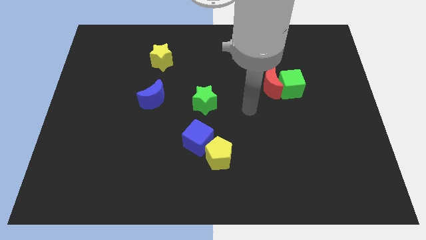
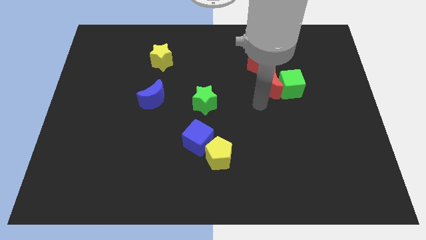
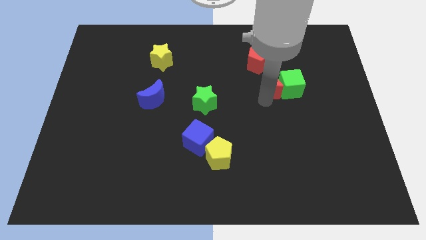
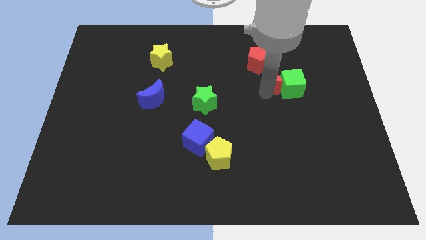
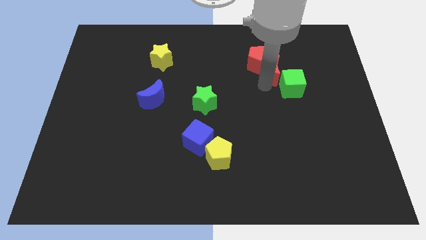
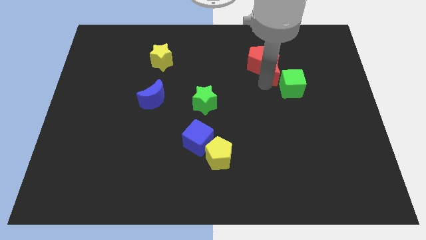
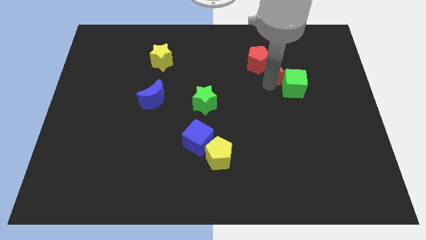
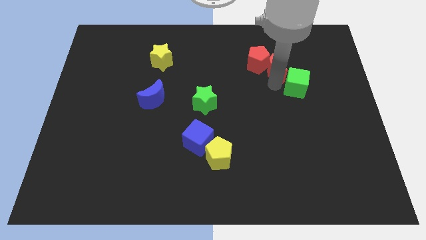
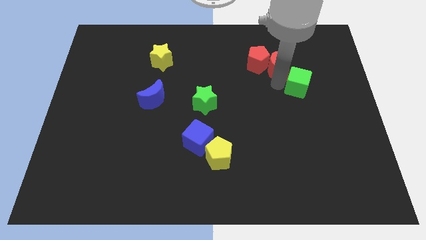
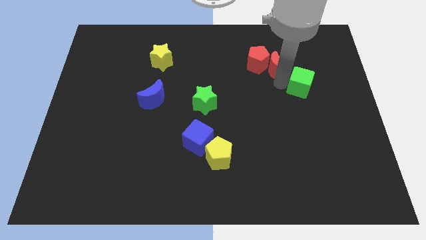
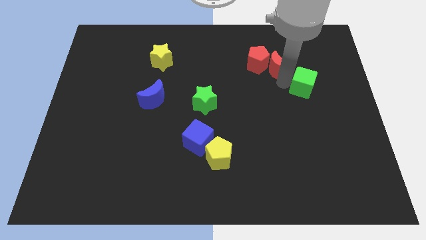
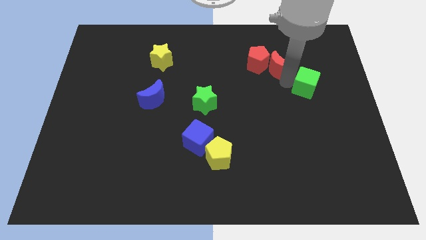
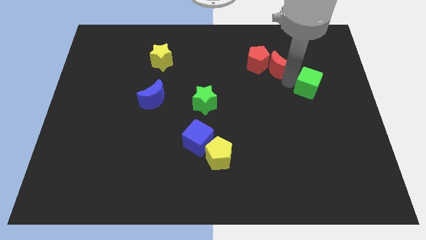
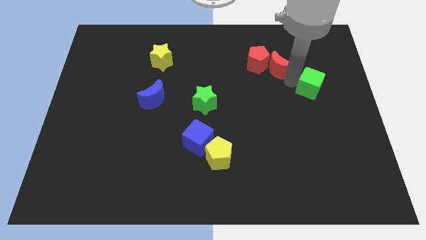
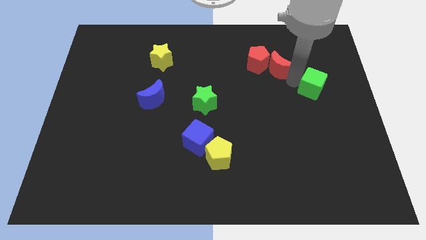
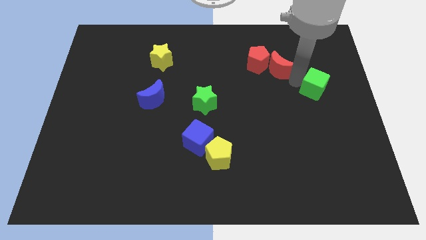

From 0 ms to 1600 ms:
separate the green cube from the red moon

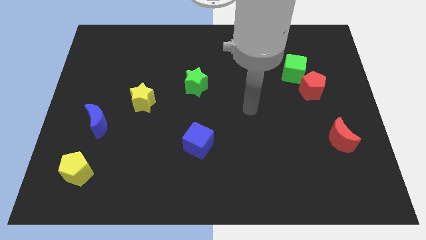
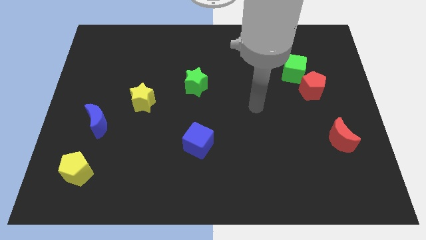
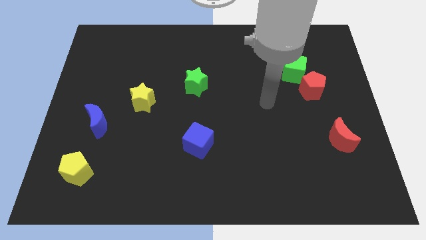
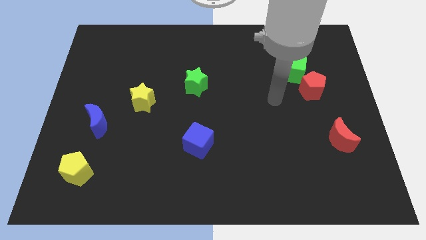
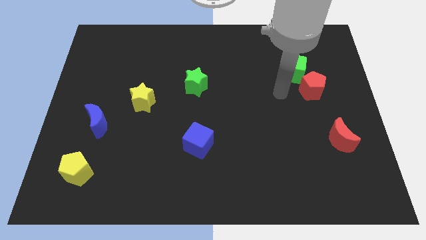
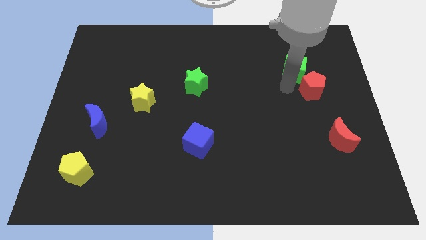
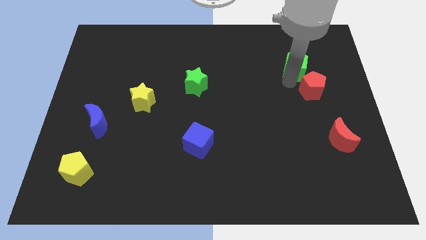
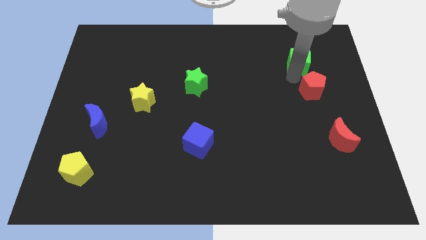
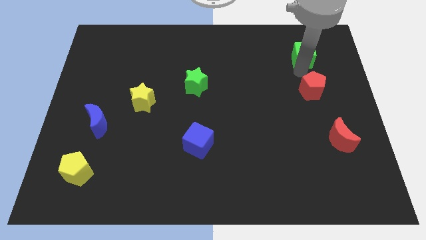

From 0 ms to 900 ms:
move the red pentagon away from the green cube

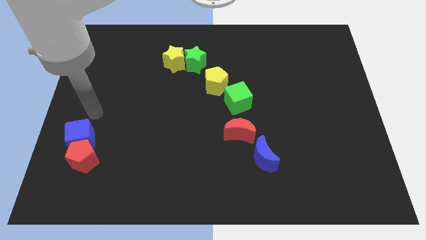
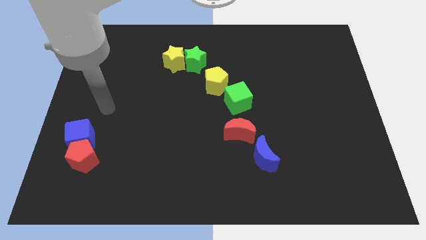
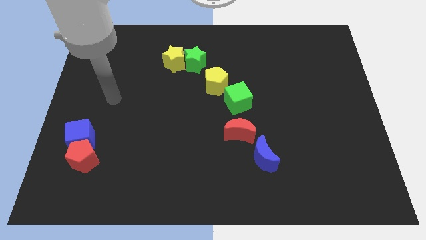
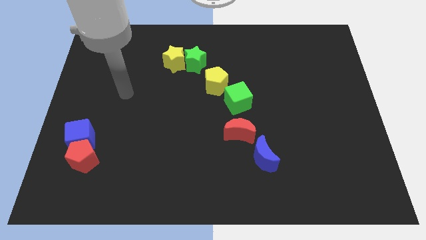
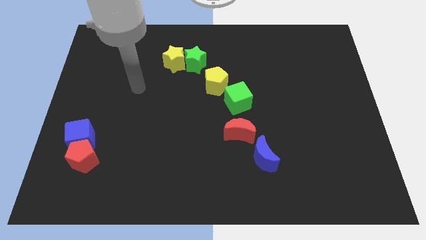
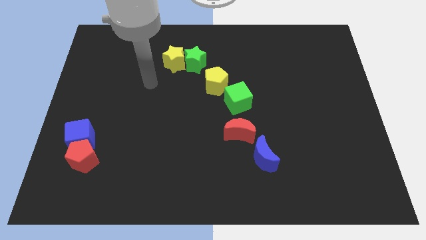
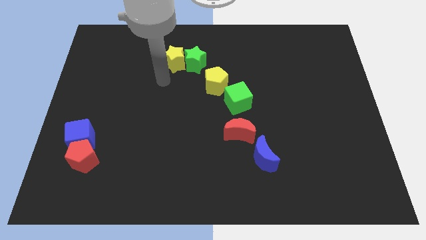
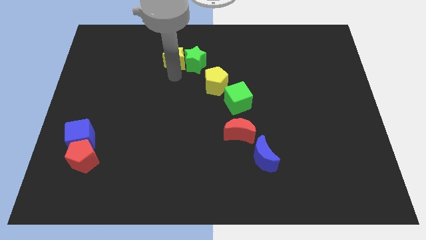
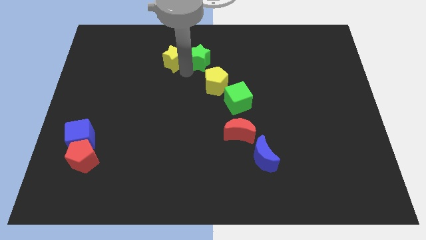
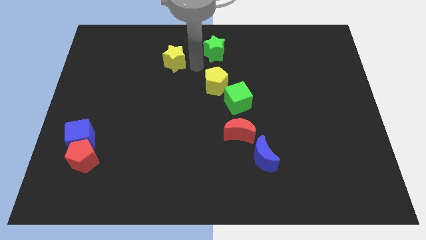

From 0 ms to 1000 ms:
move the yellow star away from the green star

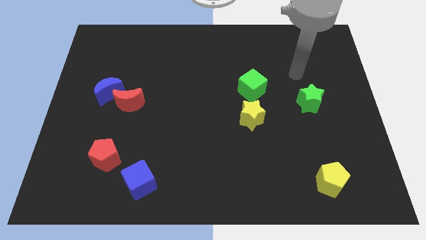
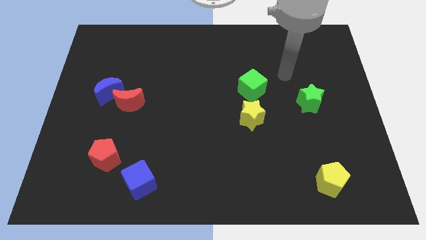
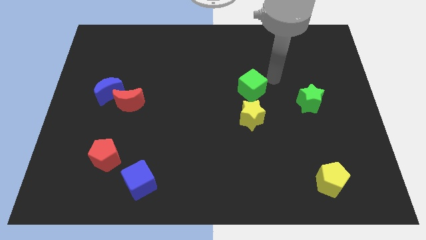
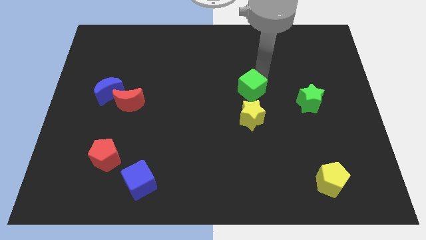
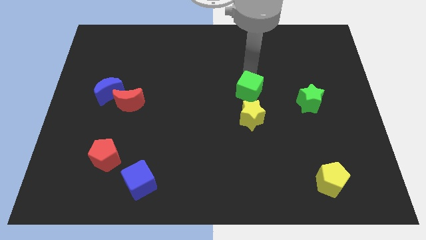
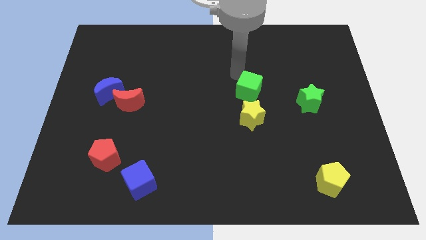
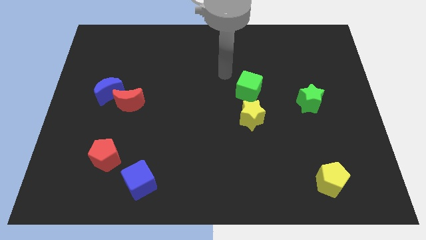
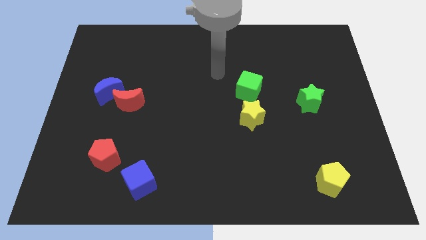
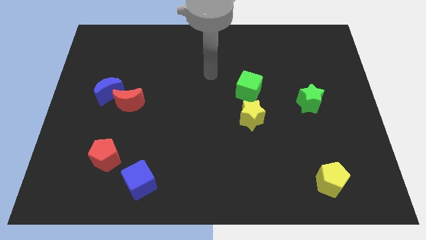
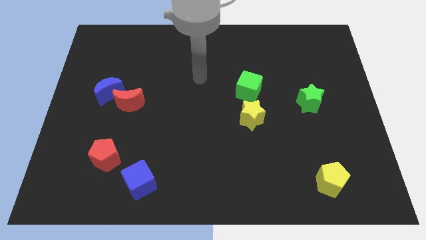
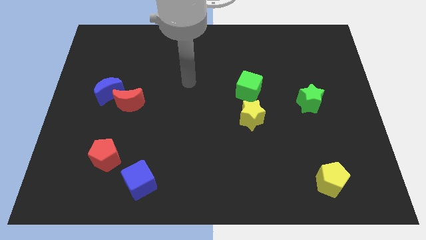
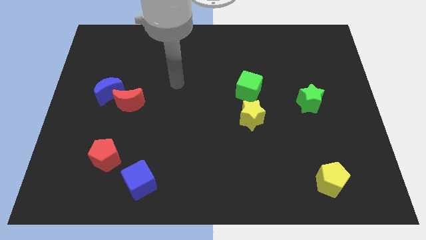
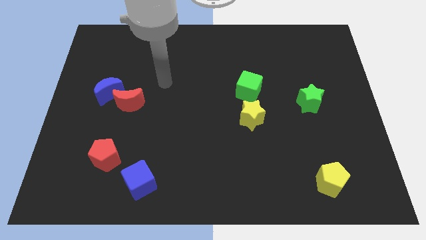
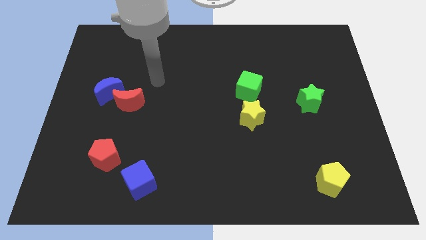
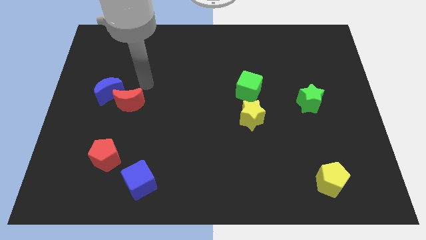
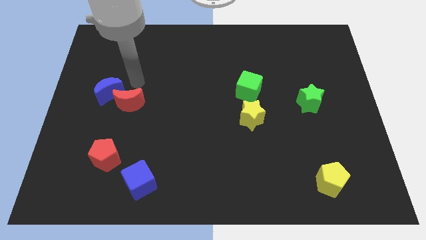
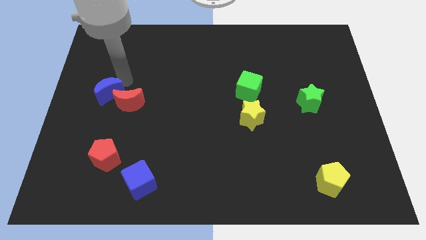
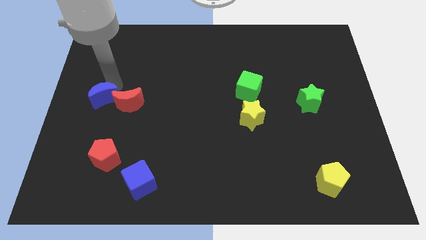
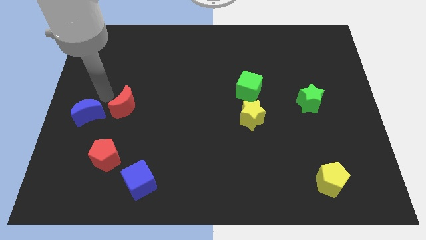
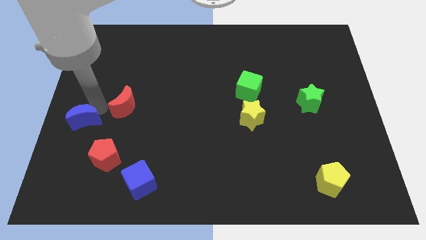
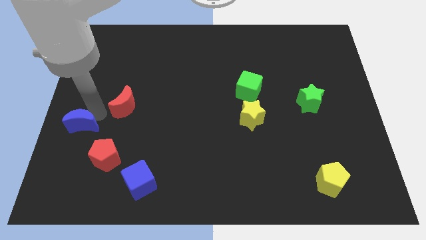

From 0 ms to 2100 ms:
separate the red moon from the blue moon

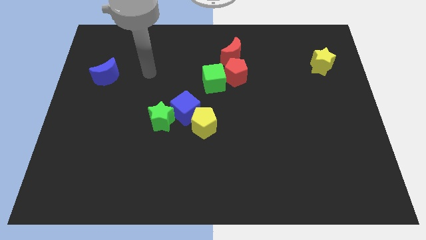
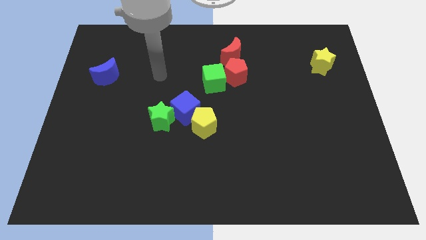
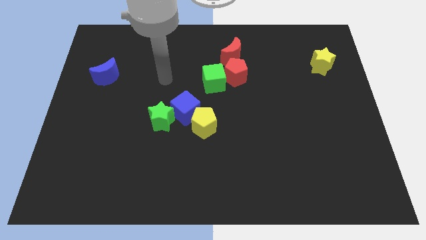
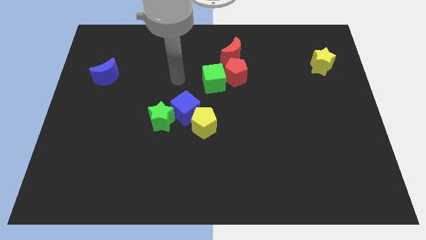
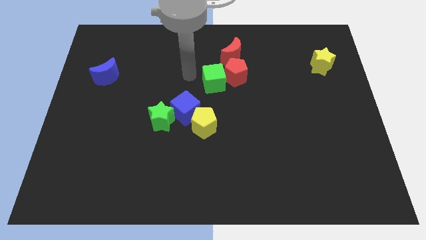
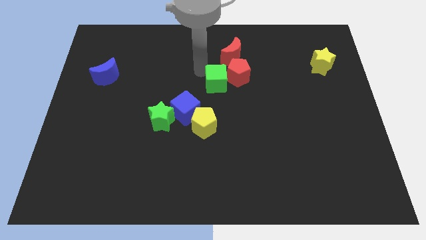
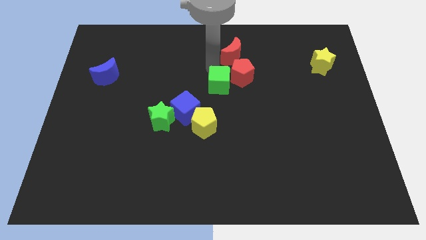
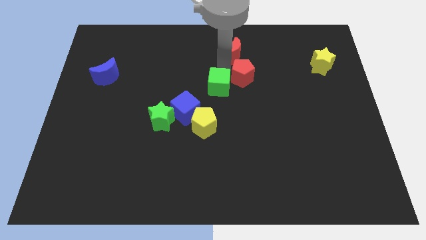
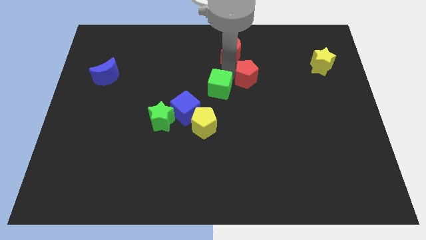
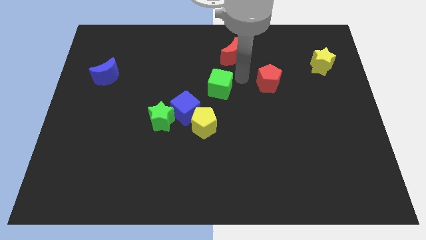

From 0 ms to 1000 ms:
separate the green cube from the red pentagon

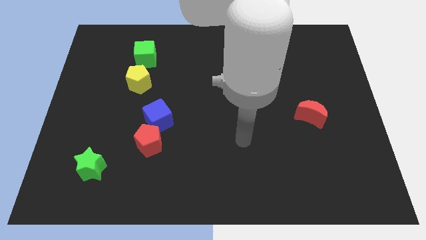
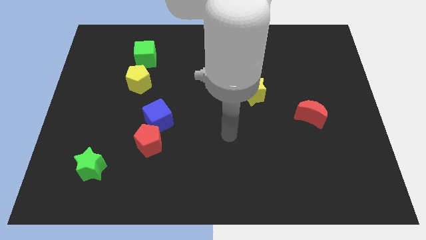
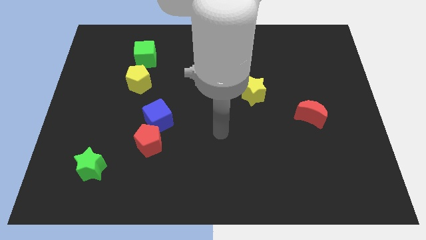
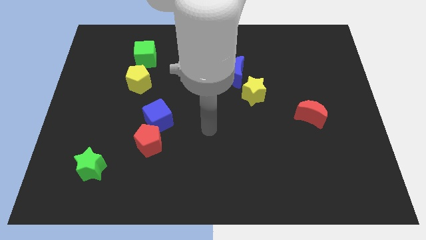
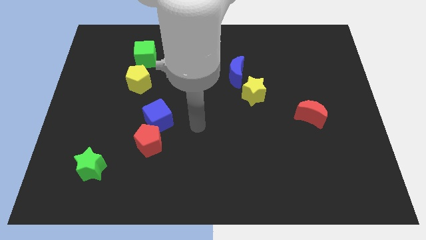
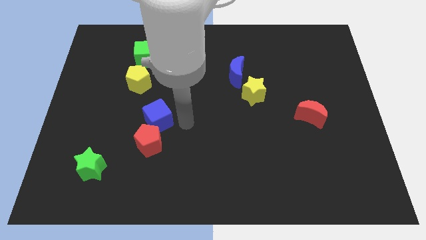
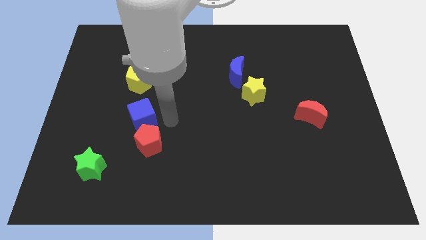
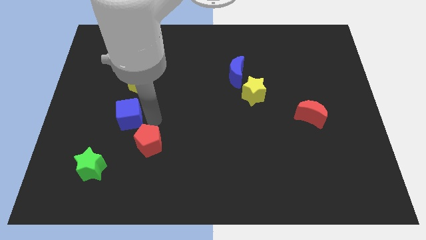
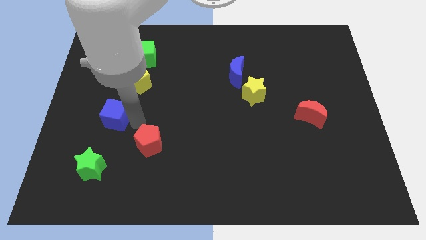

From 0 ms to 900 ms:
pull the red pentagon apart from the blue cube

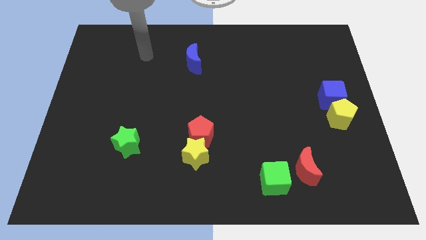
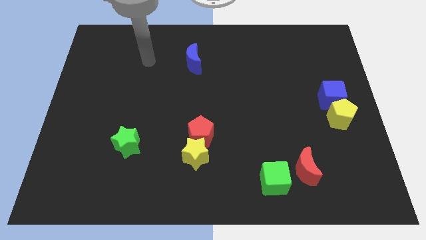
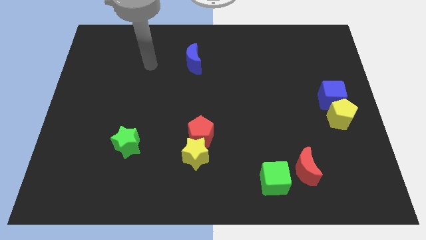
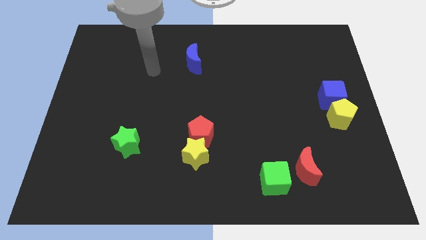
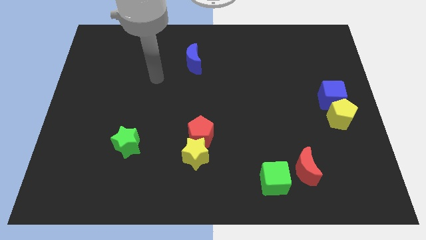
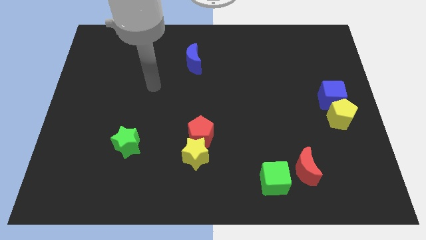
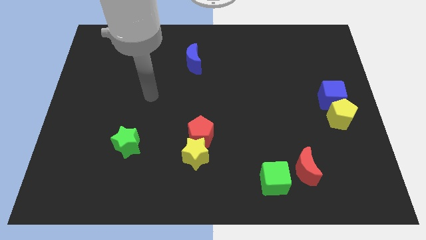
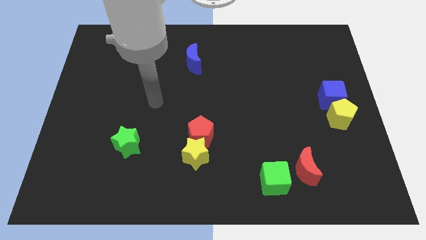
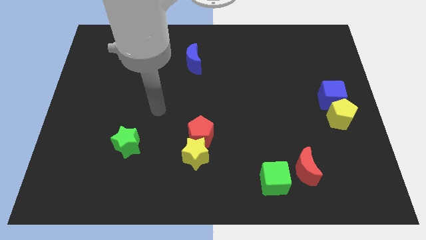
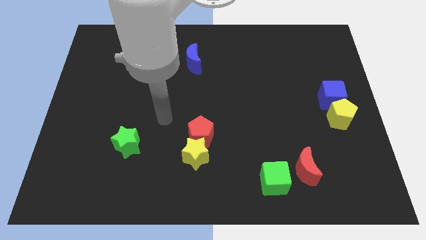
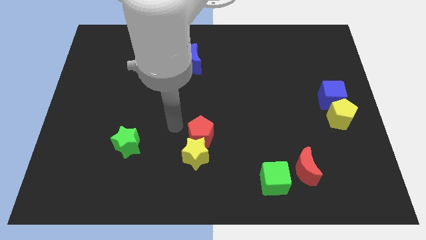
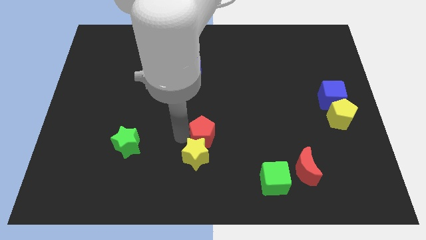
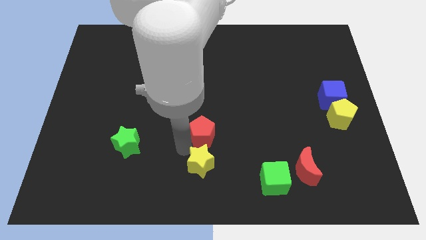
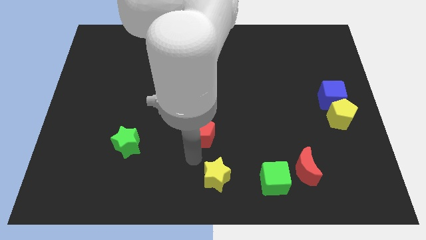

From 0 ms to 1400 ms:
pull the red pentagon apart from the yellow star

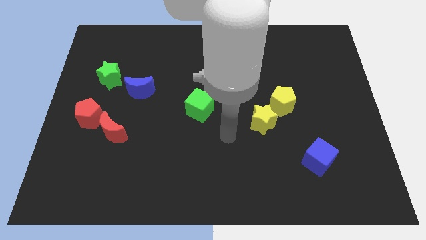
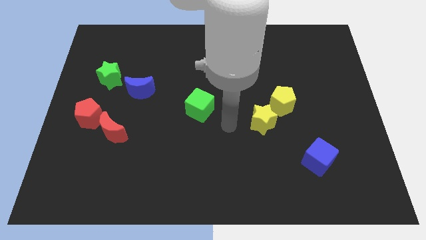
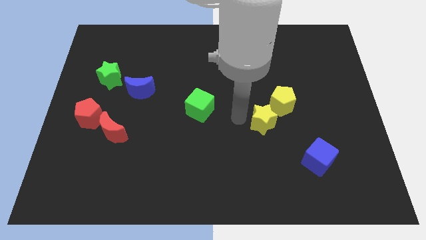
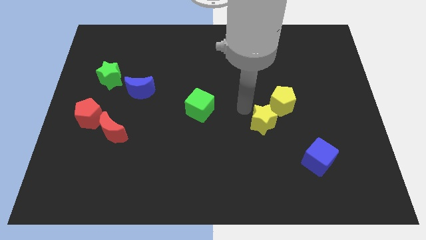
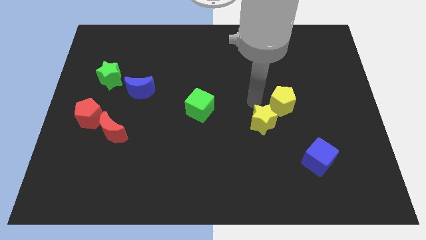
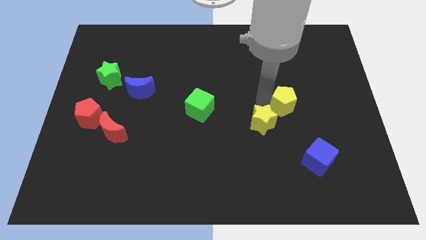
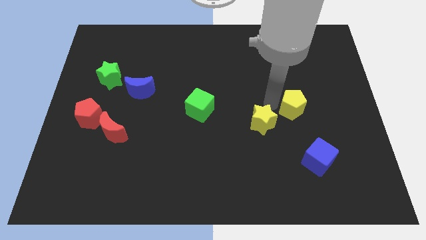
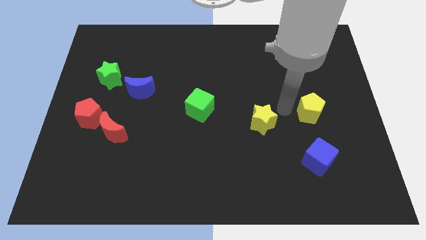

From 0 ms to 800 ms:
separate the yellow star from the yellow pentagon
